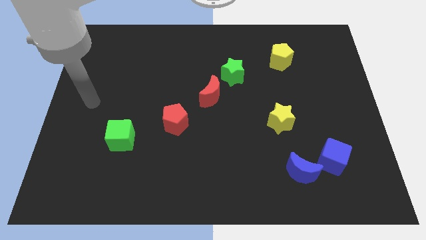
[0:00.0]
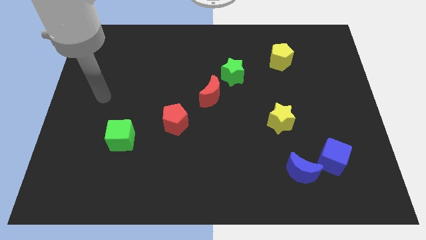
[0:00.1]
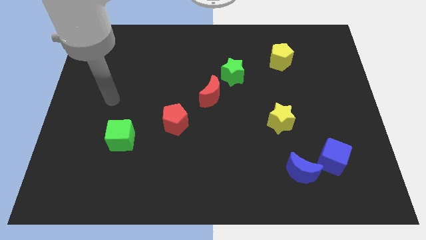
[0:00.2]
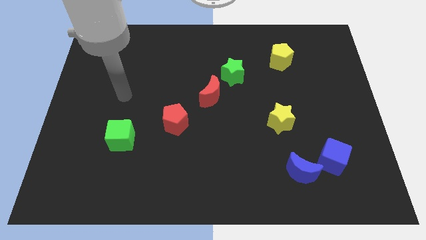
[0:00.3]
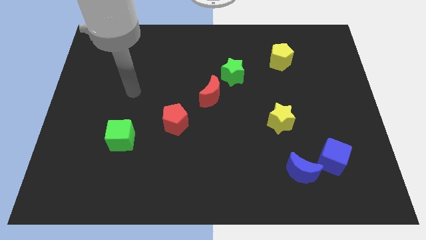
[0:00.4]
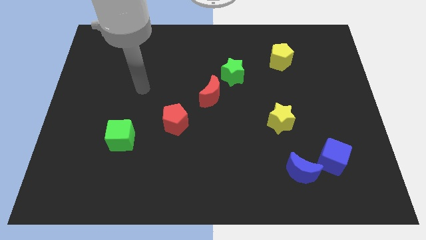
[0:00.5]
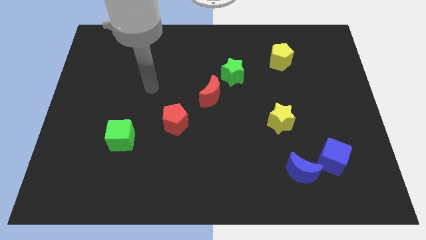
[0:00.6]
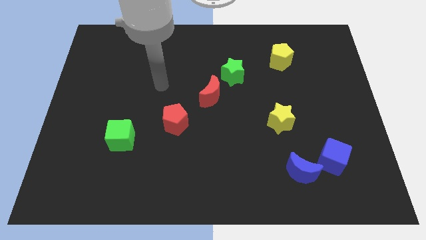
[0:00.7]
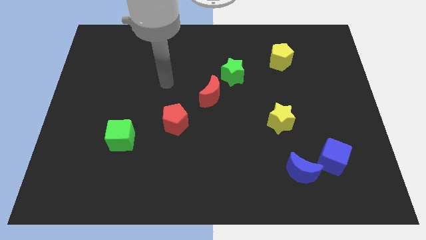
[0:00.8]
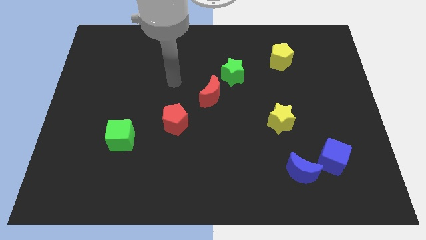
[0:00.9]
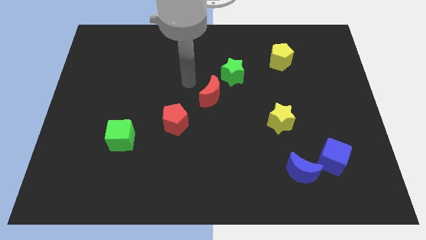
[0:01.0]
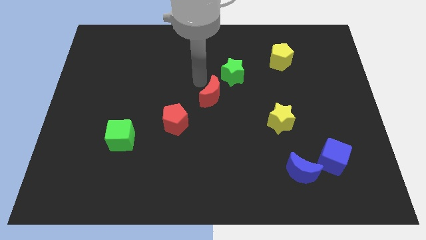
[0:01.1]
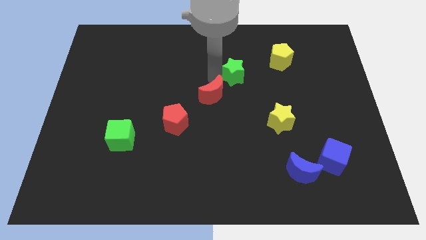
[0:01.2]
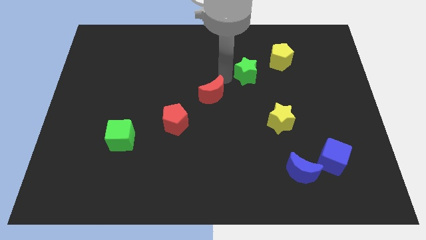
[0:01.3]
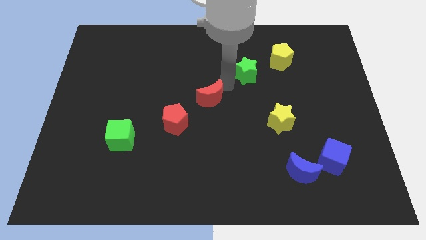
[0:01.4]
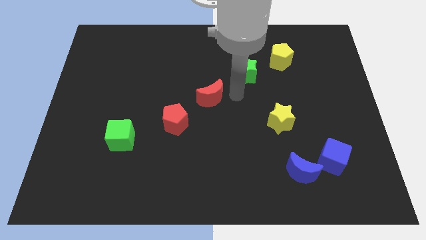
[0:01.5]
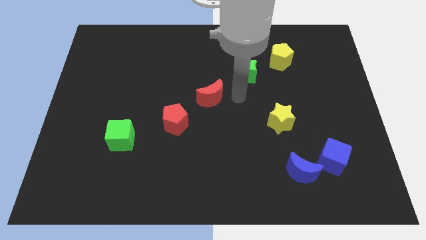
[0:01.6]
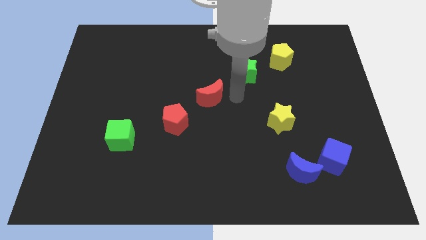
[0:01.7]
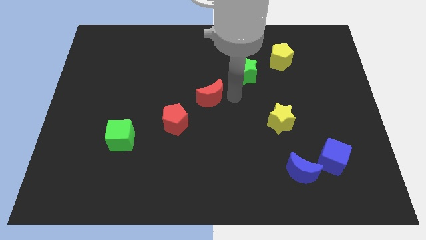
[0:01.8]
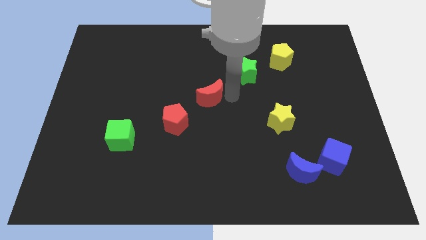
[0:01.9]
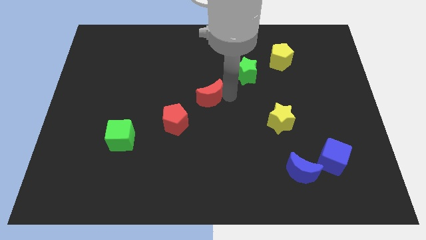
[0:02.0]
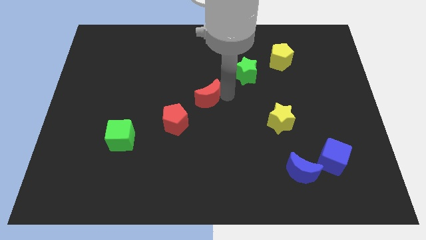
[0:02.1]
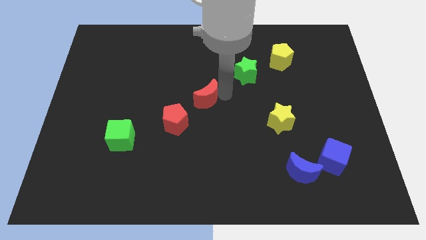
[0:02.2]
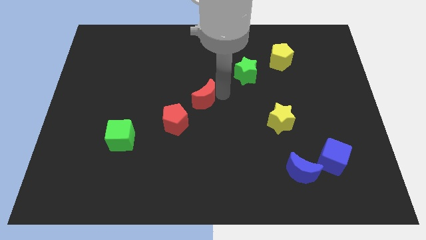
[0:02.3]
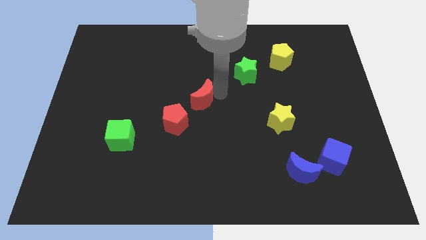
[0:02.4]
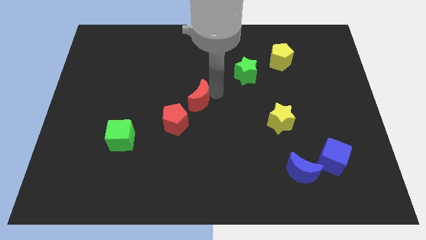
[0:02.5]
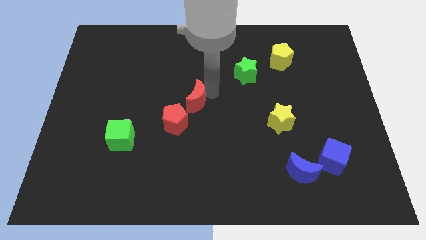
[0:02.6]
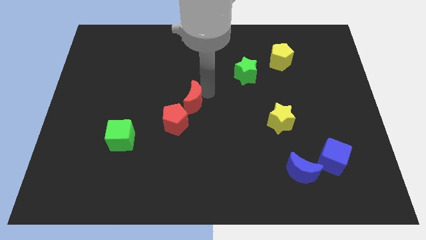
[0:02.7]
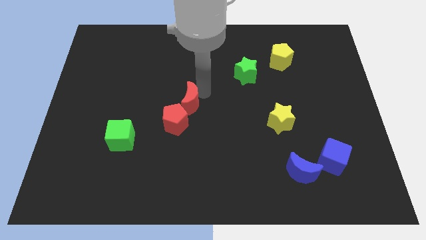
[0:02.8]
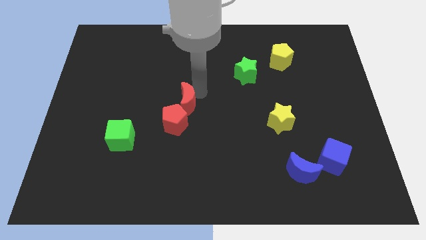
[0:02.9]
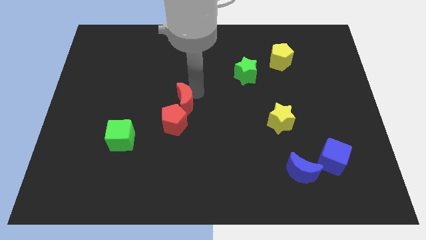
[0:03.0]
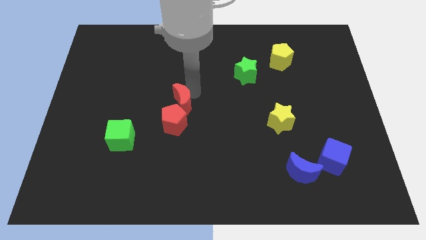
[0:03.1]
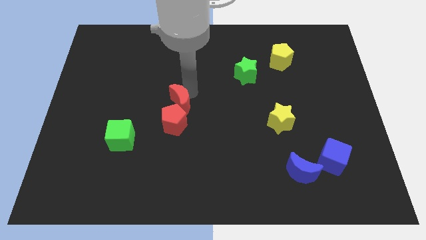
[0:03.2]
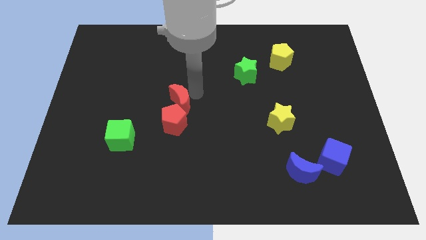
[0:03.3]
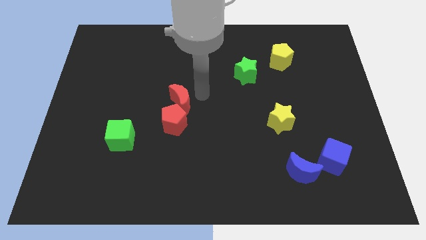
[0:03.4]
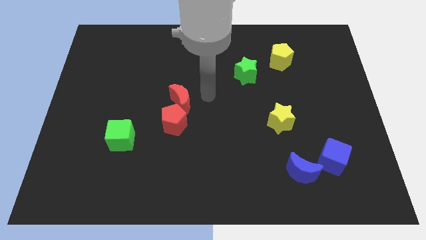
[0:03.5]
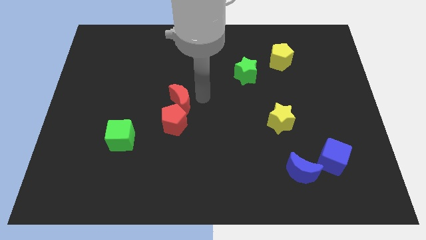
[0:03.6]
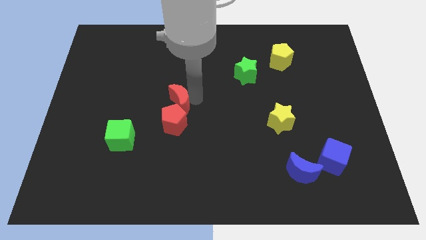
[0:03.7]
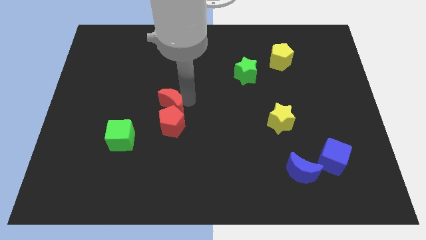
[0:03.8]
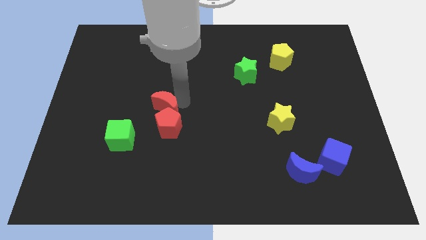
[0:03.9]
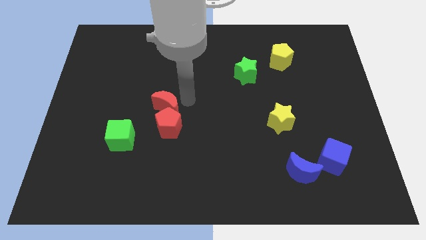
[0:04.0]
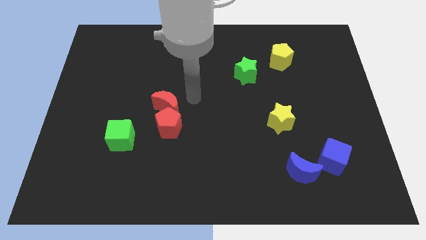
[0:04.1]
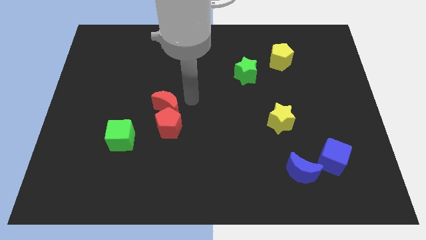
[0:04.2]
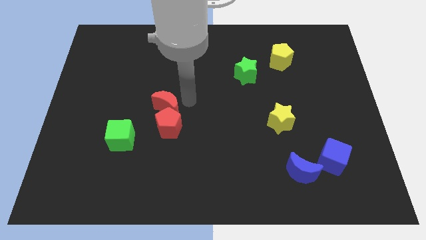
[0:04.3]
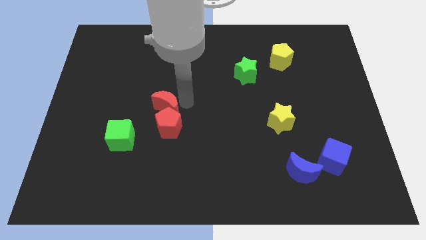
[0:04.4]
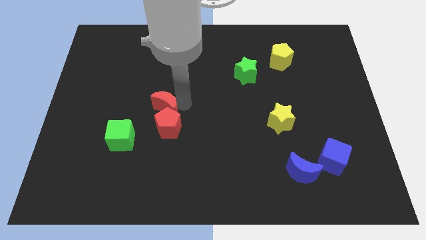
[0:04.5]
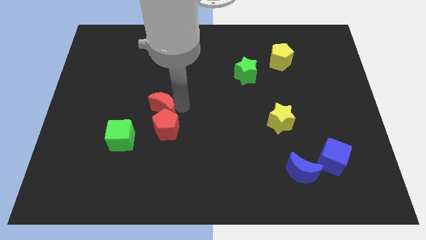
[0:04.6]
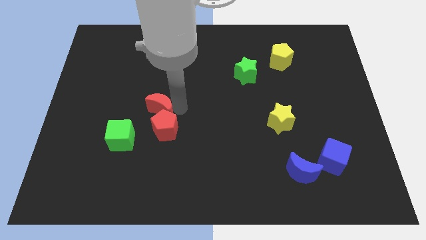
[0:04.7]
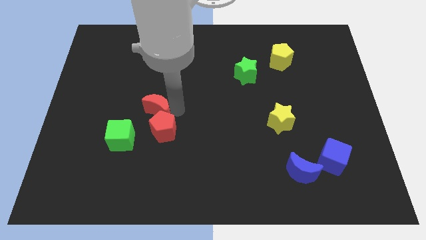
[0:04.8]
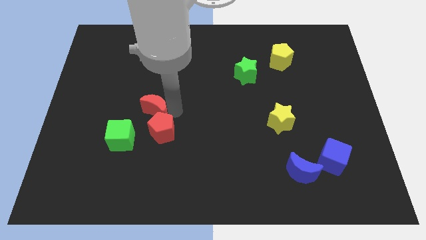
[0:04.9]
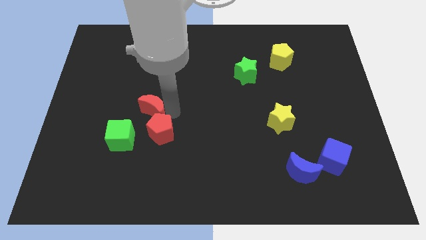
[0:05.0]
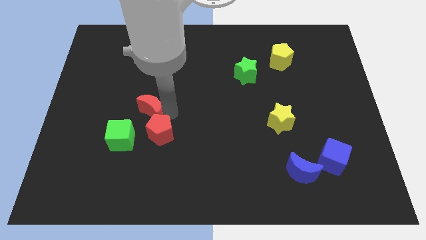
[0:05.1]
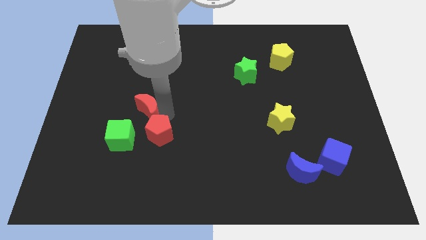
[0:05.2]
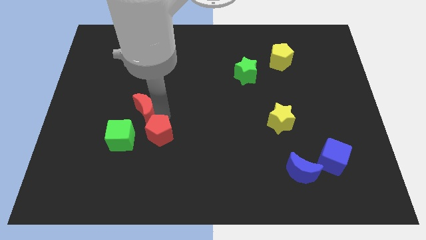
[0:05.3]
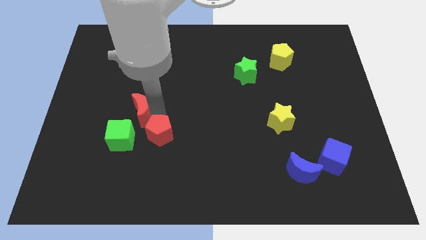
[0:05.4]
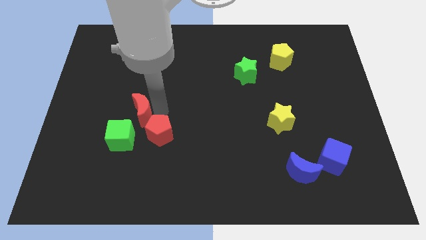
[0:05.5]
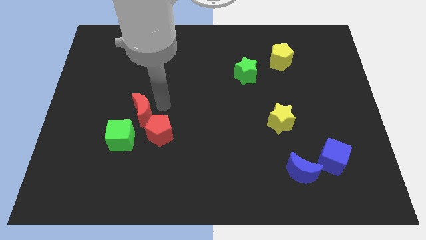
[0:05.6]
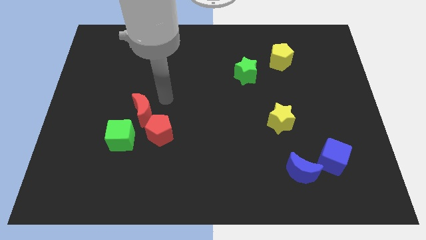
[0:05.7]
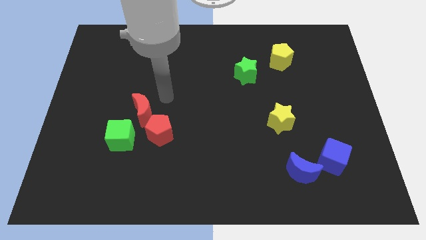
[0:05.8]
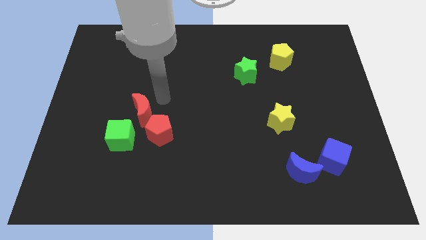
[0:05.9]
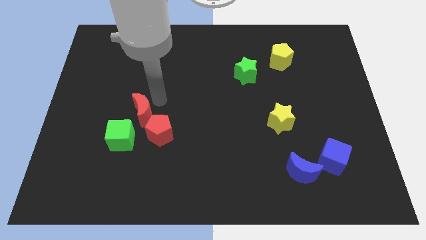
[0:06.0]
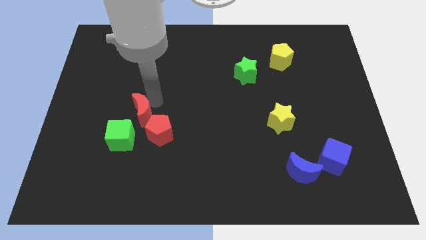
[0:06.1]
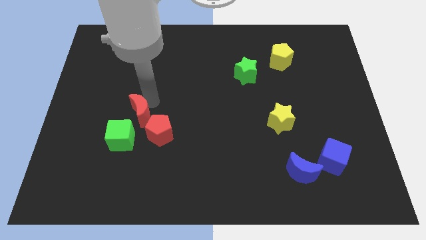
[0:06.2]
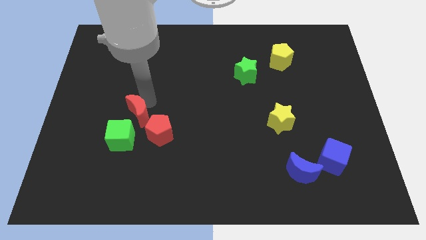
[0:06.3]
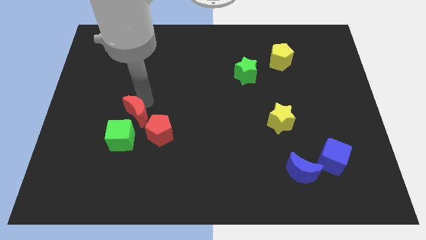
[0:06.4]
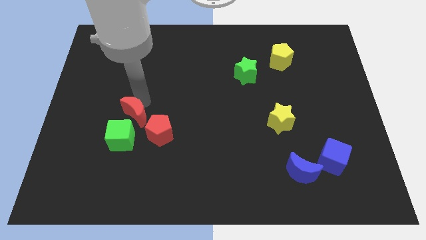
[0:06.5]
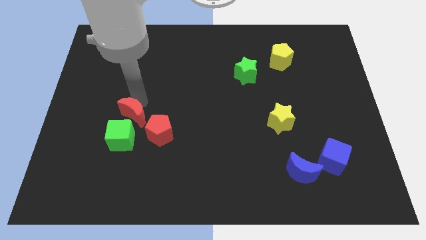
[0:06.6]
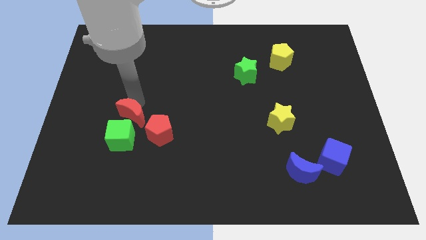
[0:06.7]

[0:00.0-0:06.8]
slide the red moon to the left of the red pentagon
